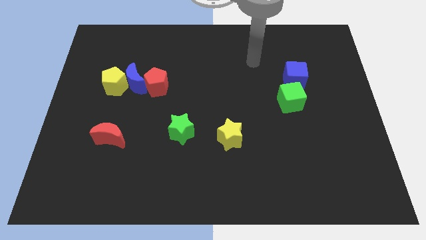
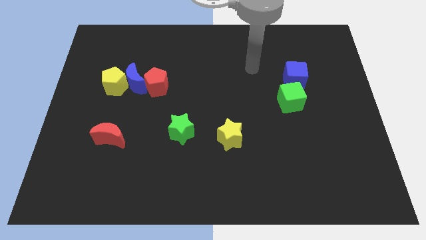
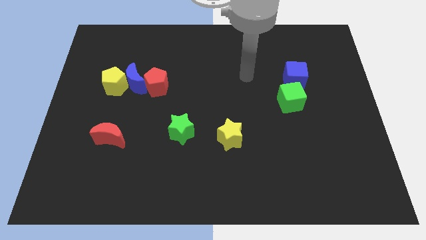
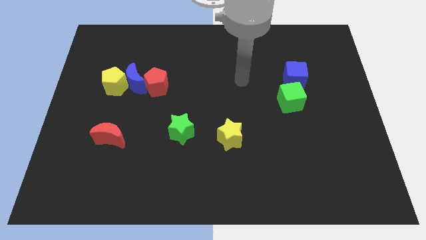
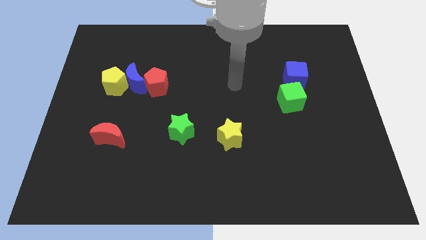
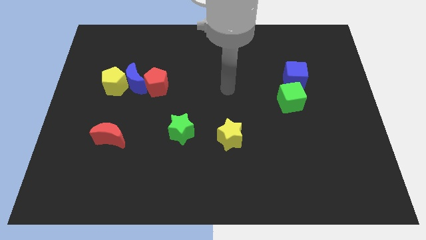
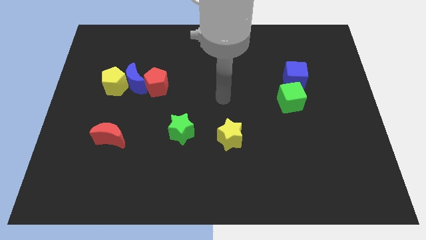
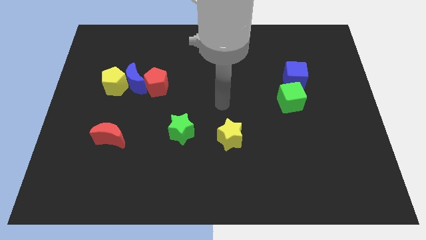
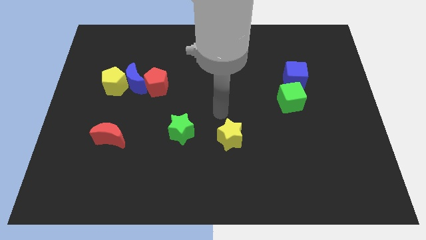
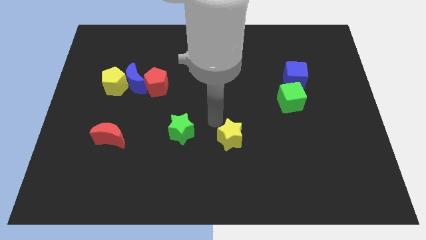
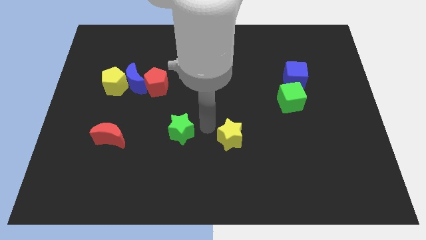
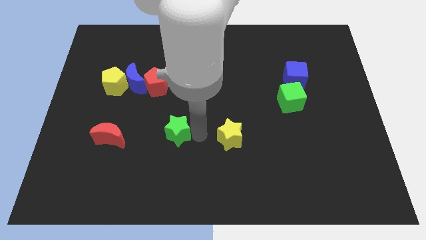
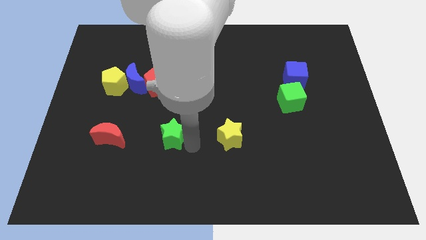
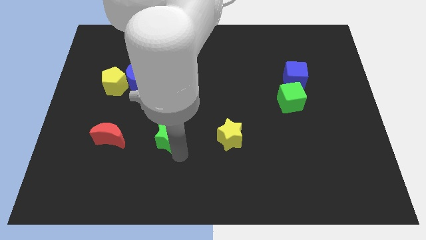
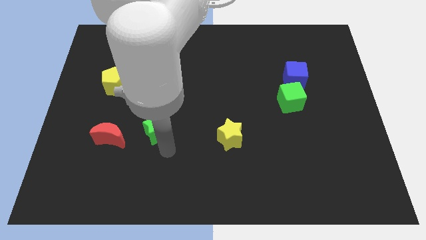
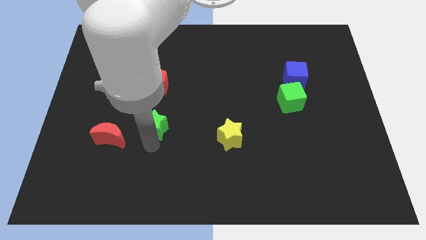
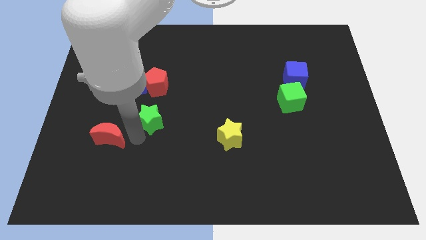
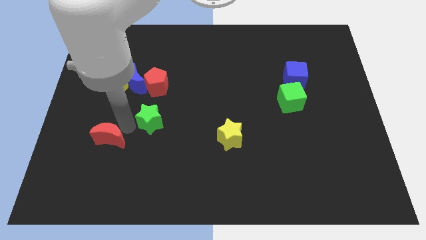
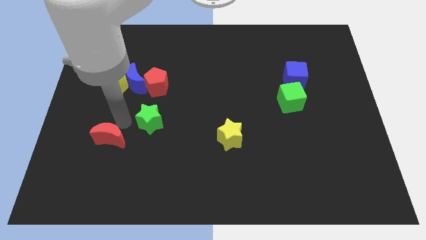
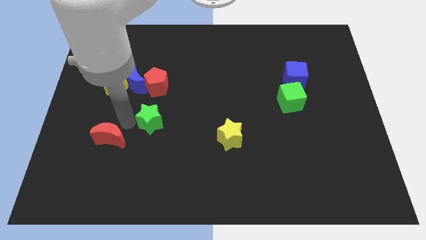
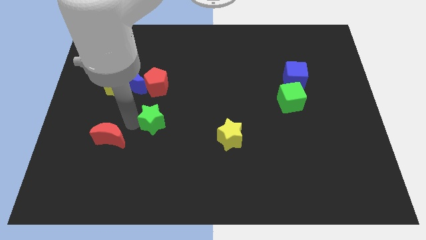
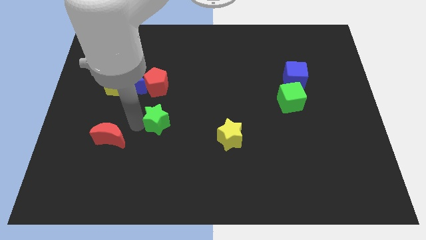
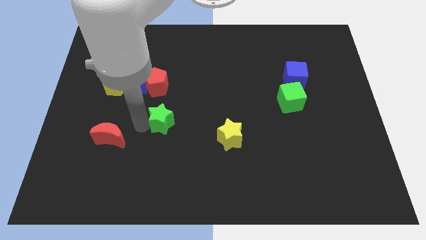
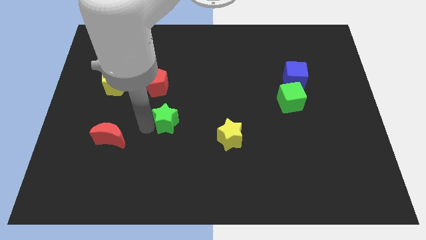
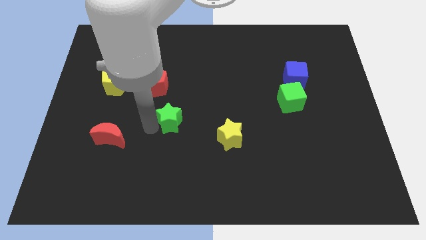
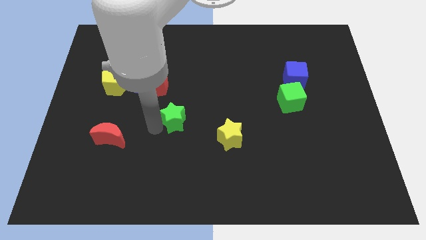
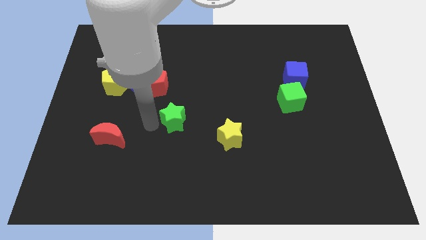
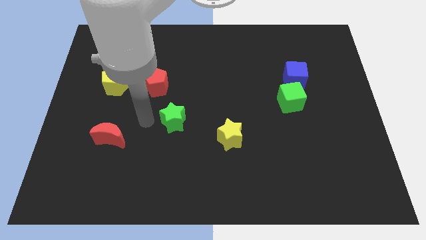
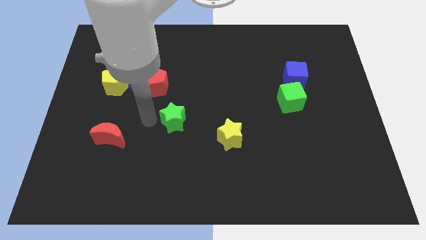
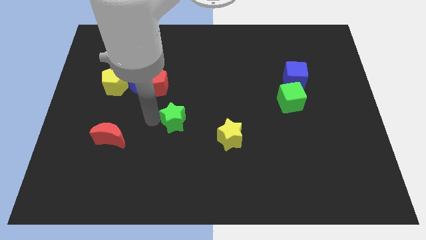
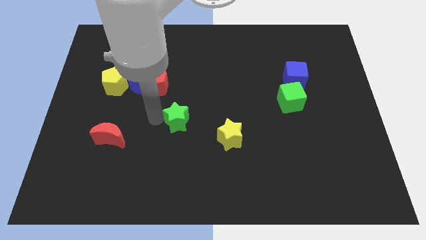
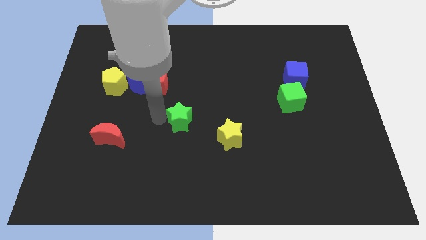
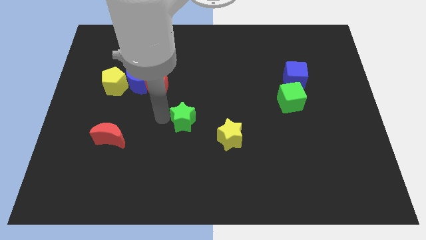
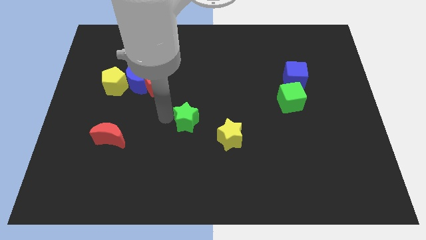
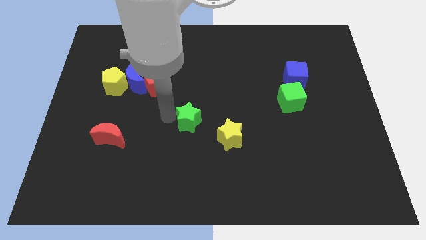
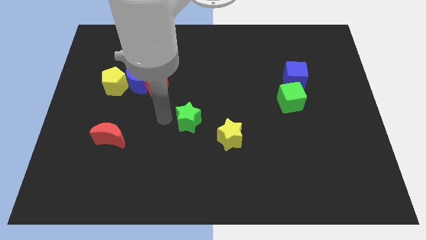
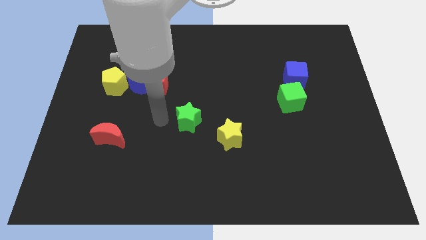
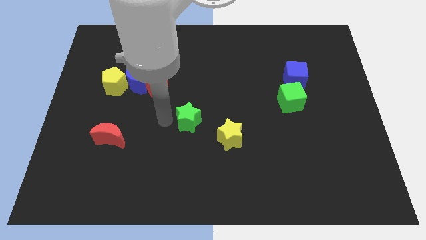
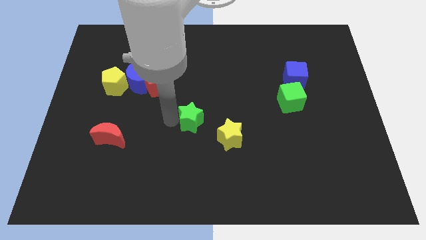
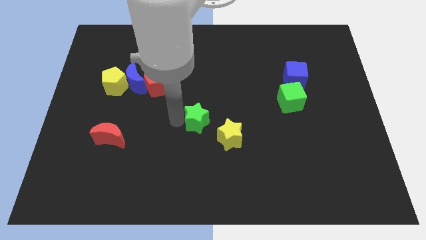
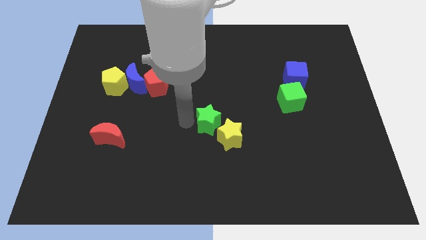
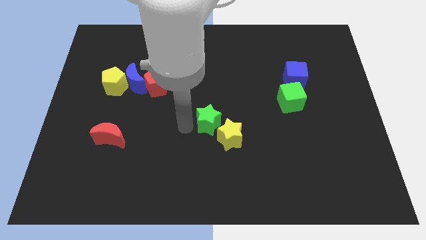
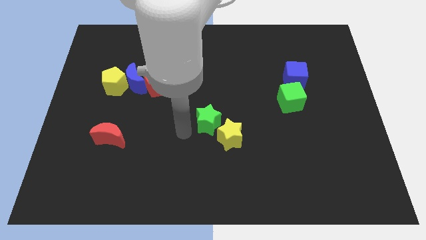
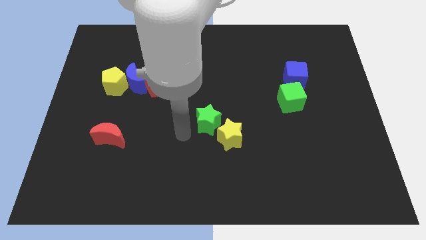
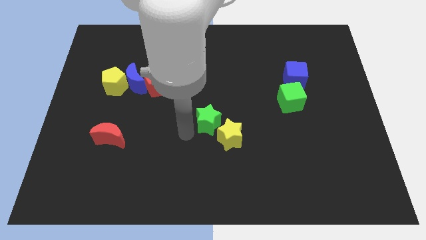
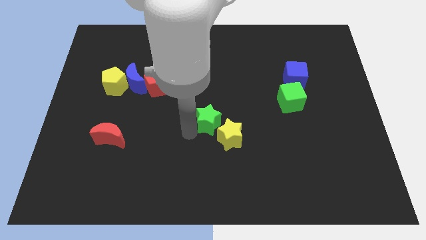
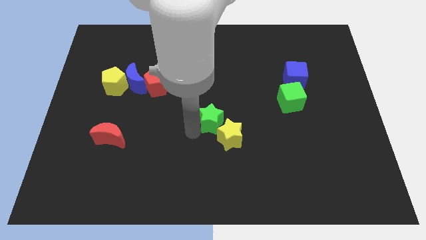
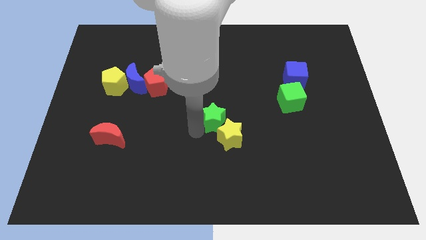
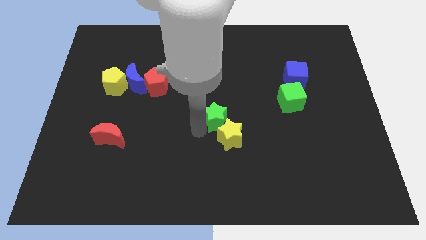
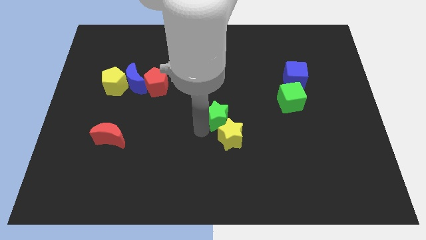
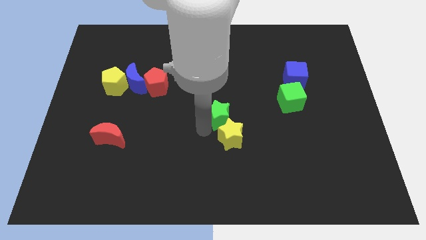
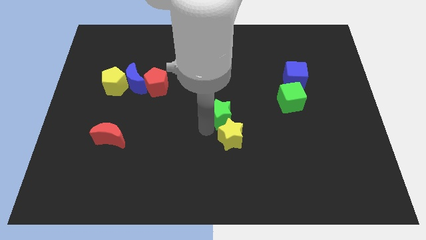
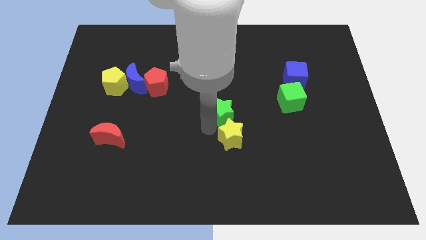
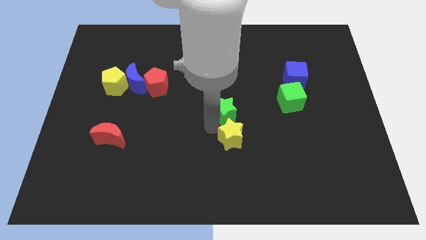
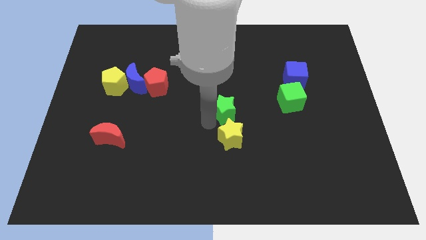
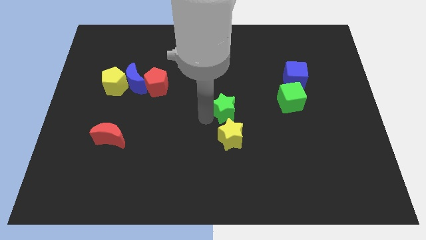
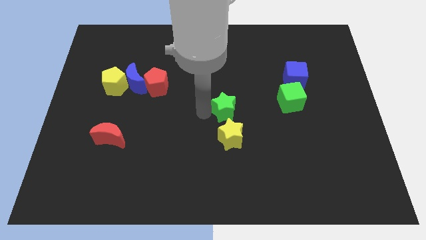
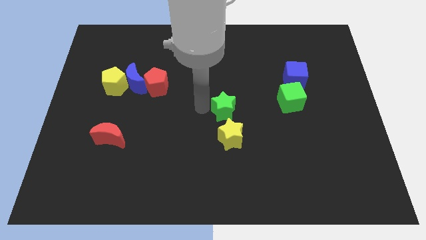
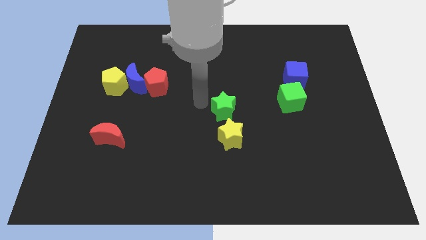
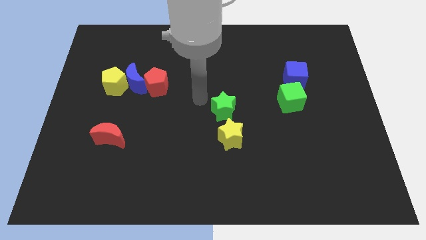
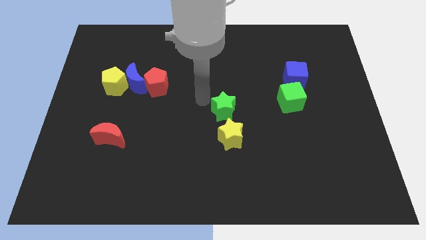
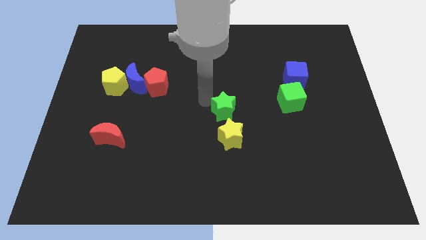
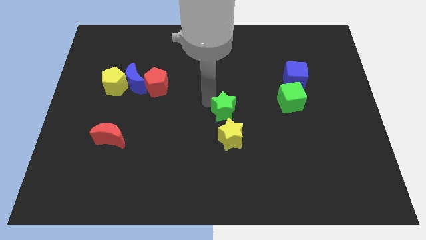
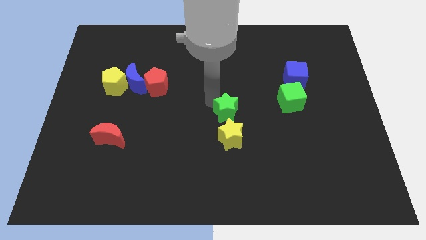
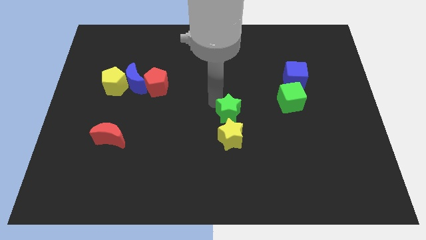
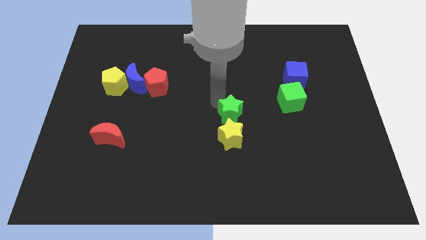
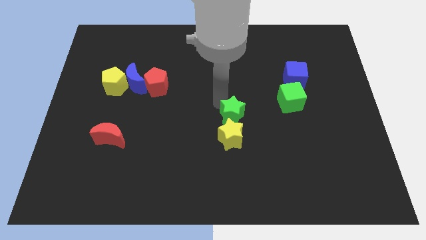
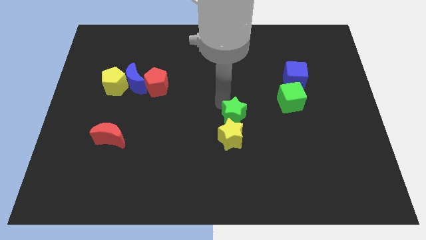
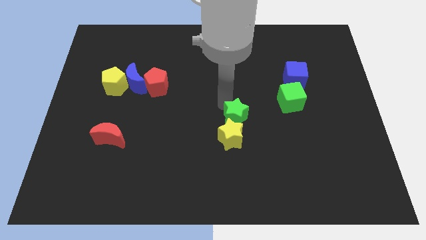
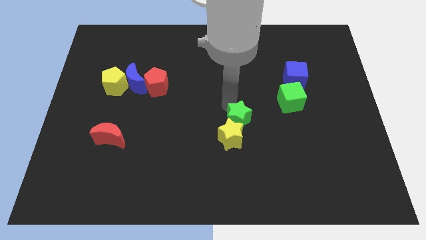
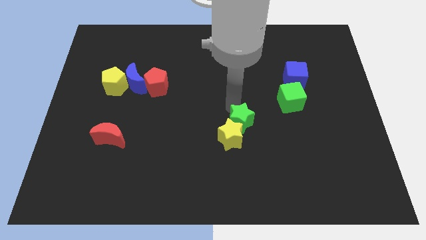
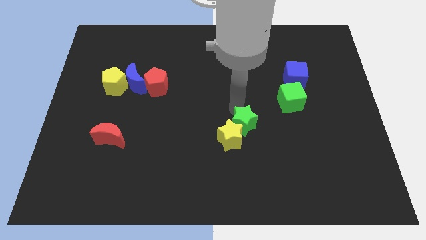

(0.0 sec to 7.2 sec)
move the green star right of the yellow star

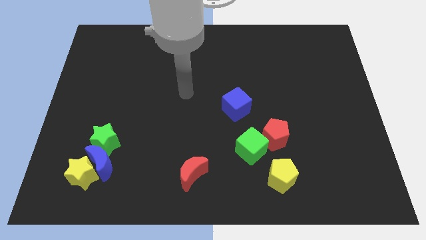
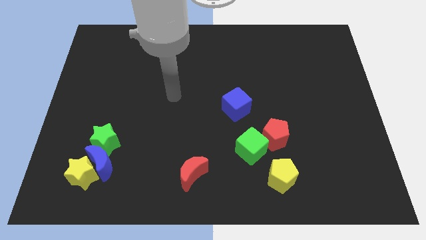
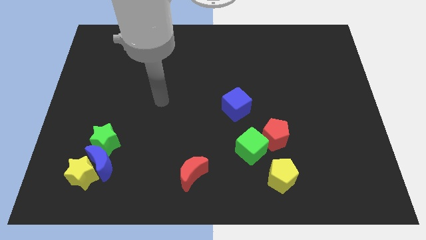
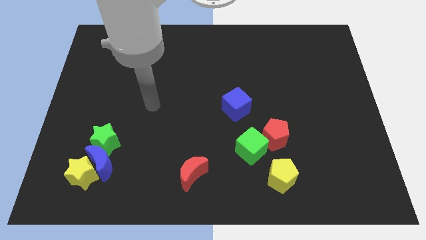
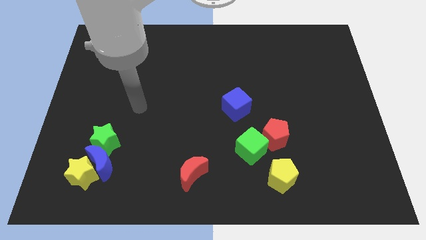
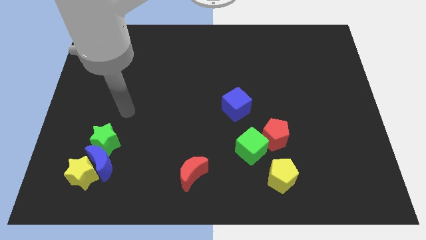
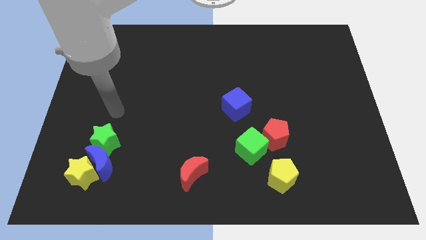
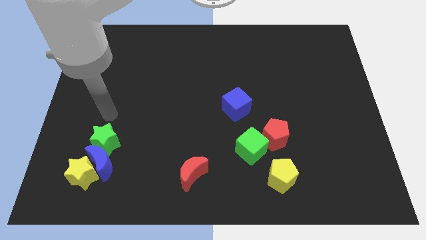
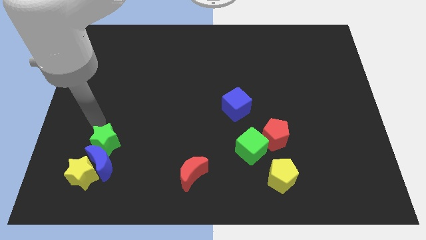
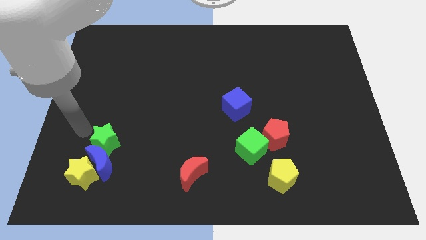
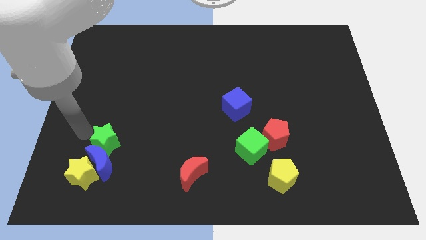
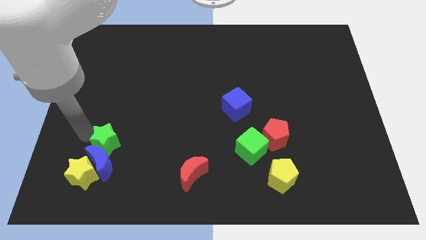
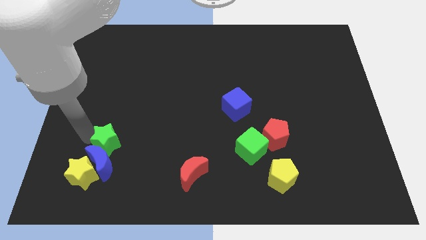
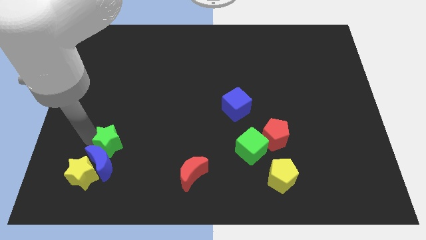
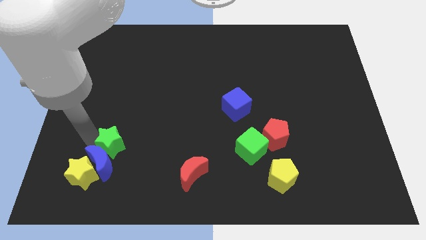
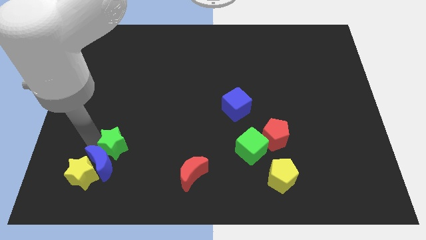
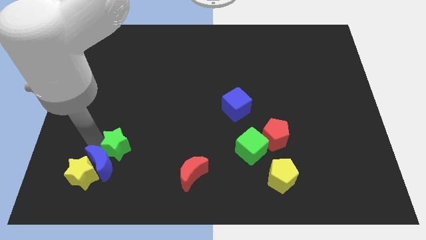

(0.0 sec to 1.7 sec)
move the green star just right of the blue moon
